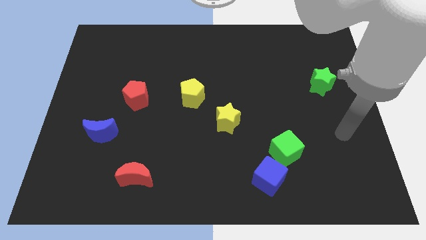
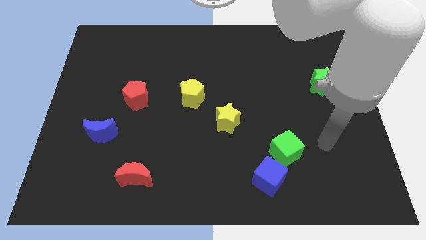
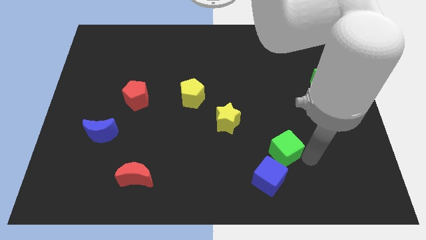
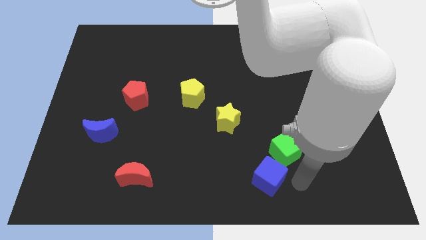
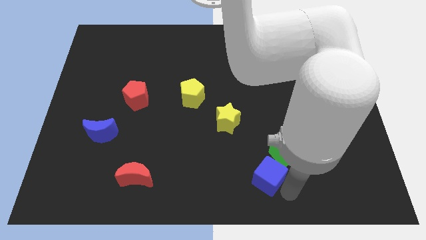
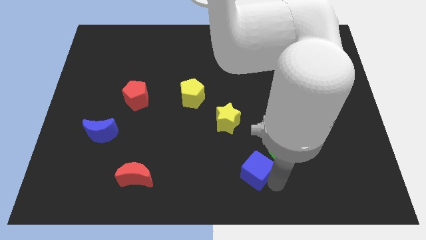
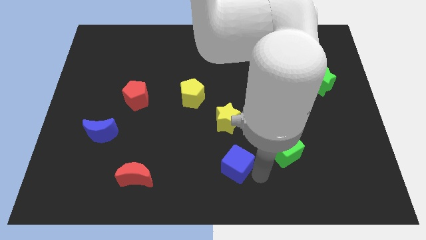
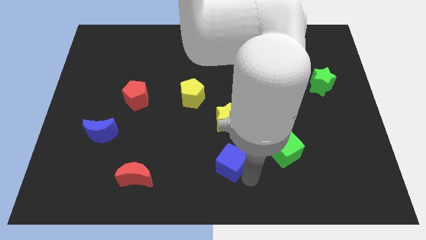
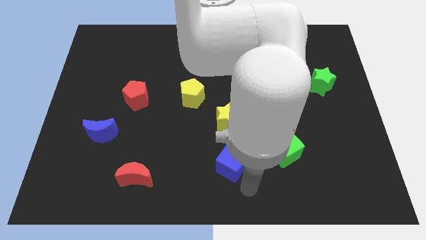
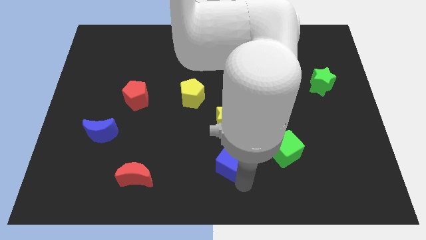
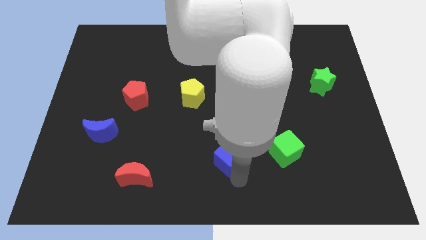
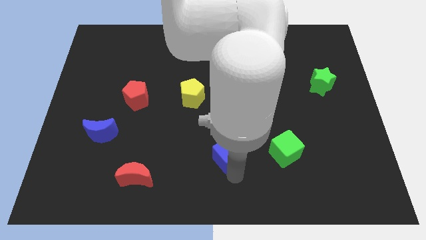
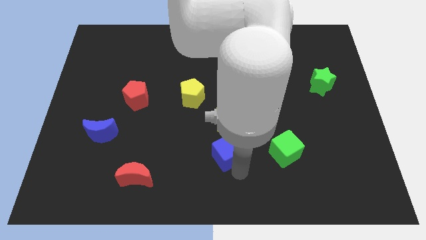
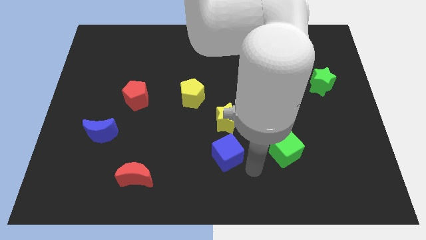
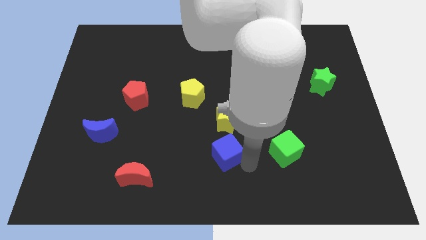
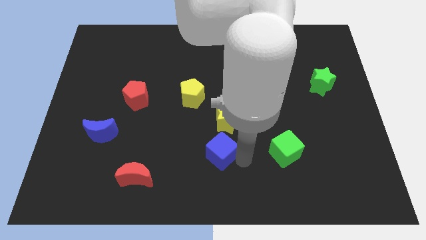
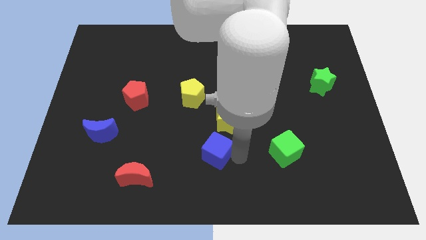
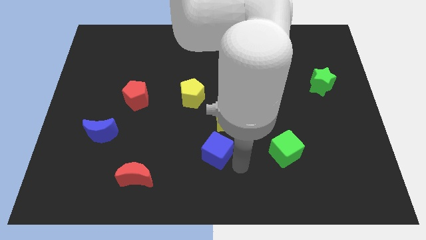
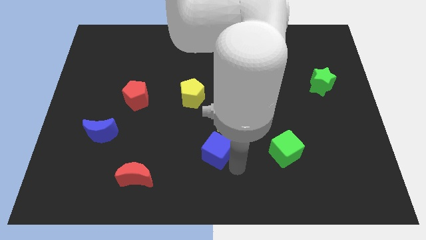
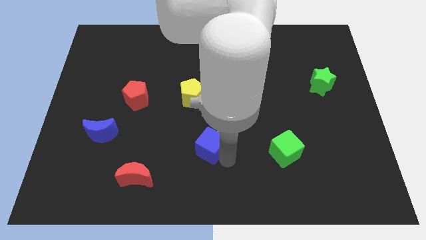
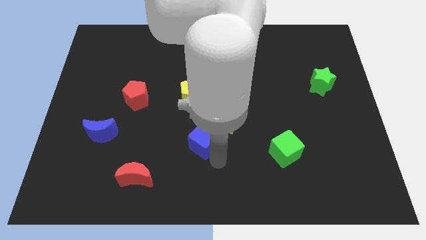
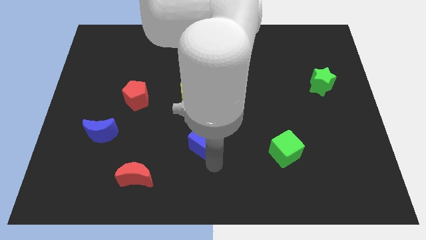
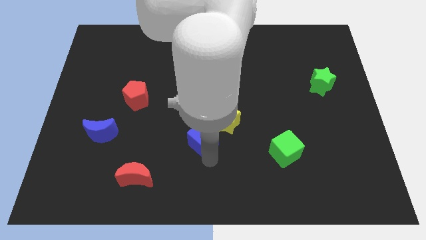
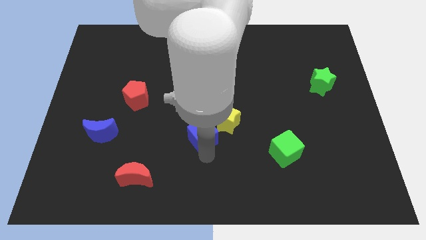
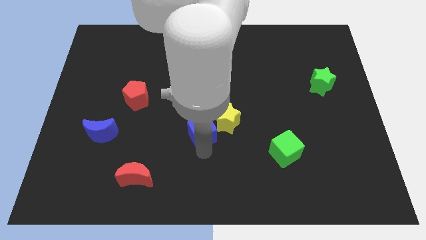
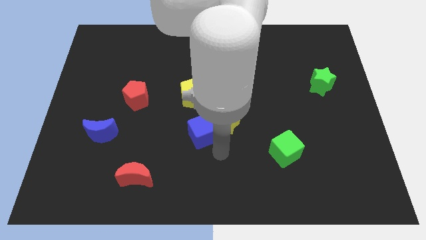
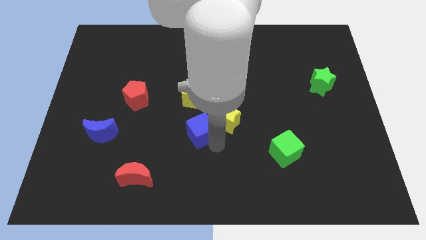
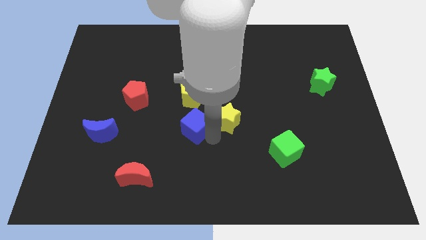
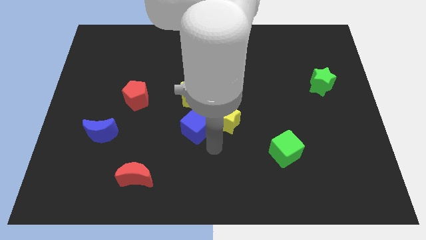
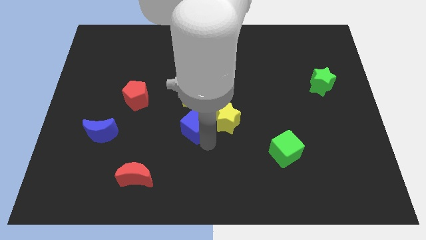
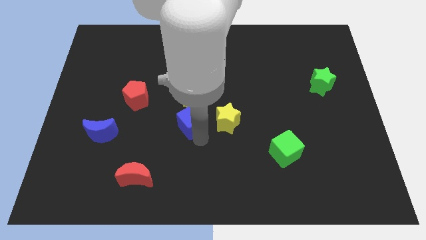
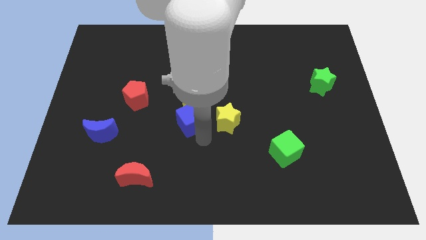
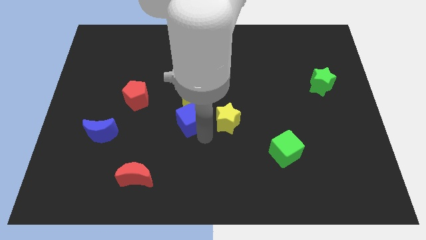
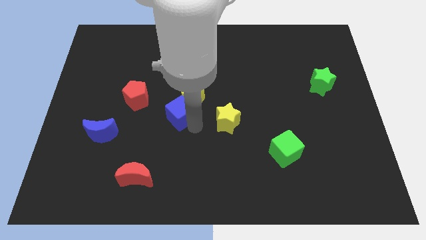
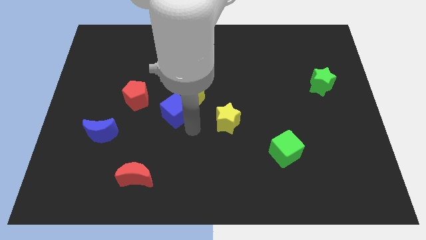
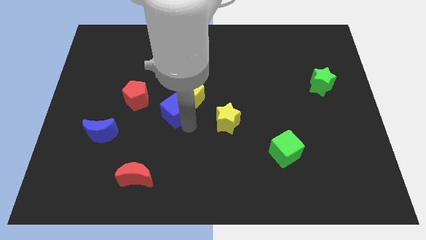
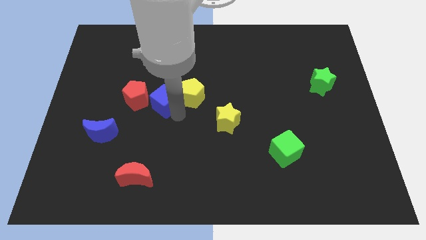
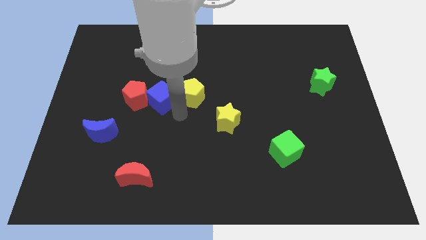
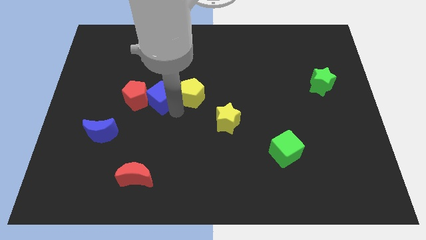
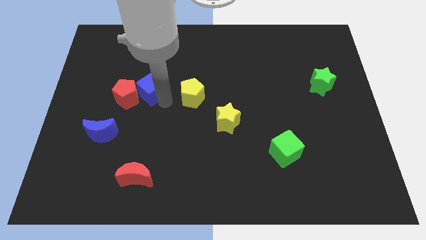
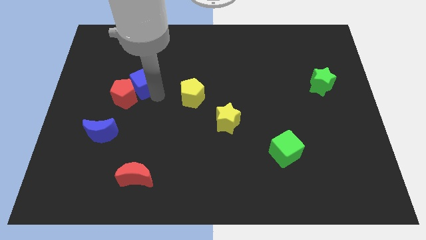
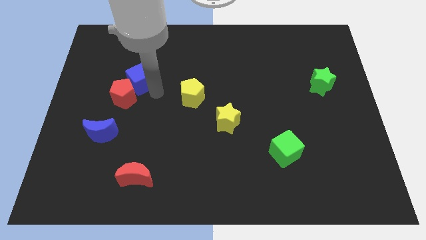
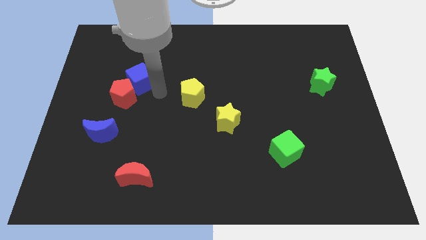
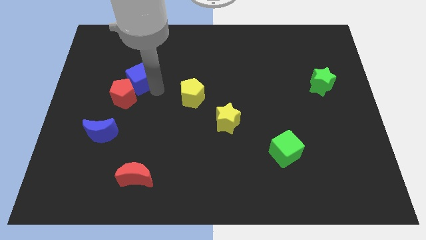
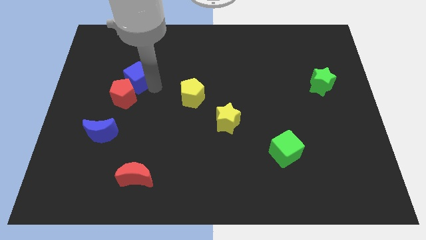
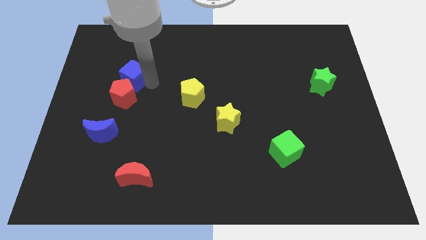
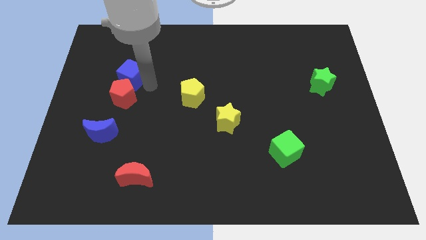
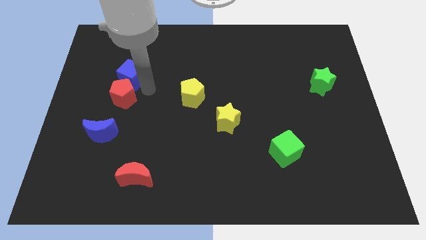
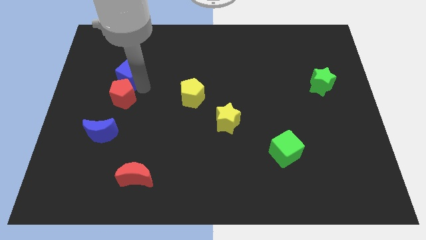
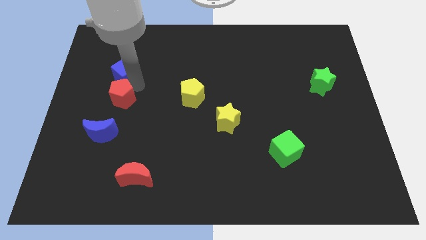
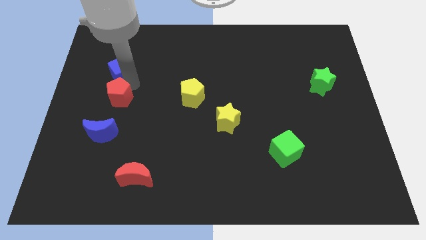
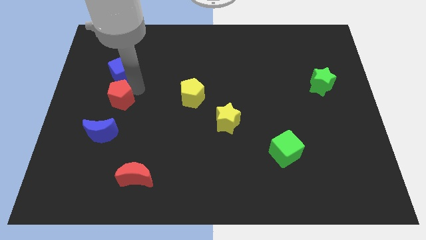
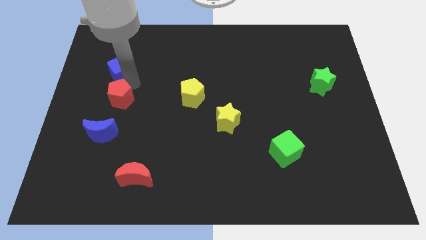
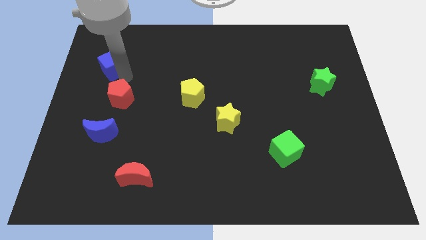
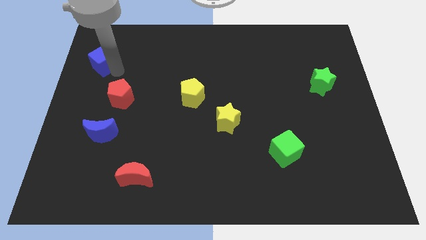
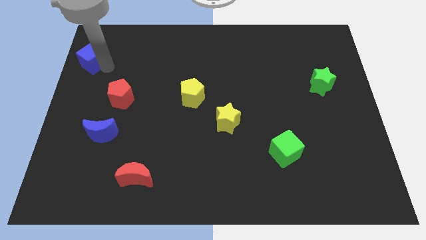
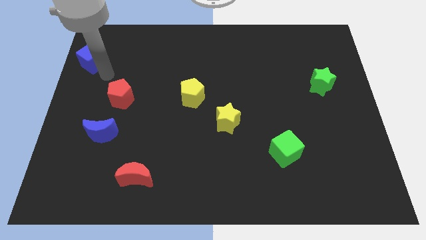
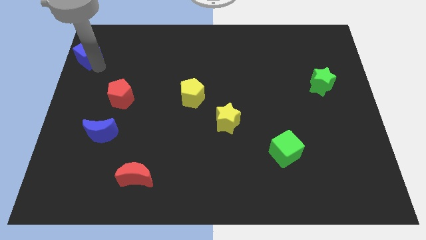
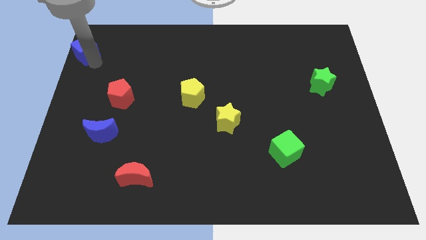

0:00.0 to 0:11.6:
put the blue cube to the top left
